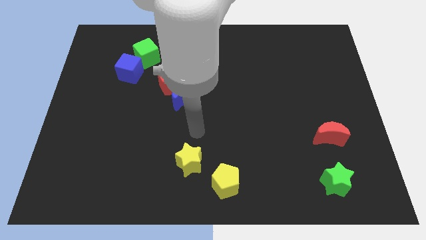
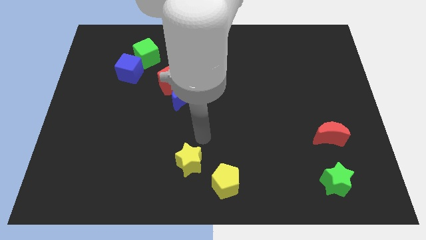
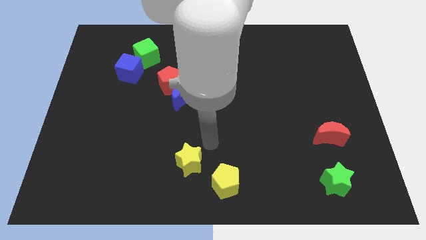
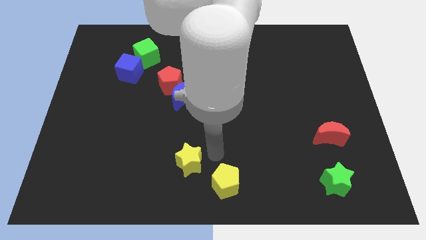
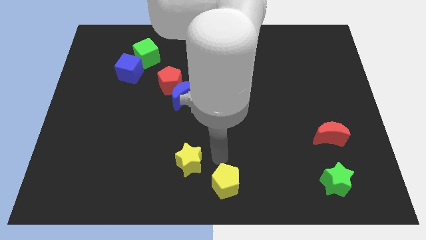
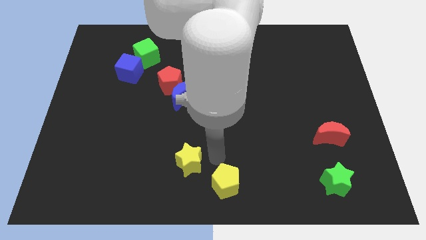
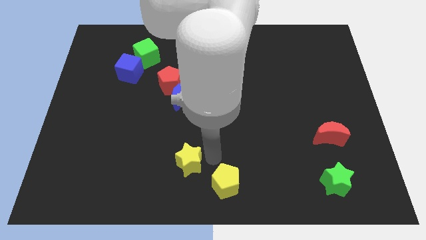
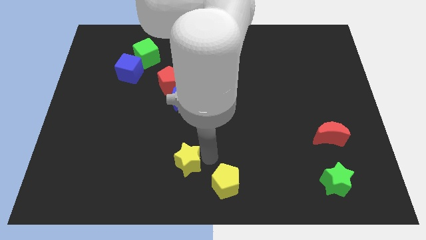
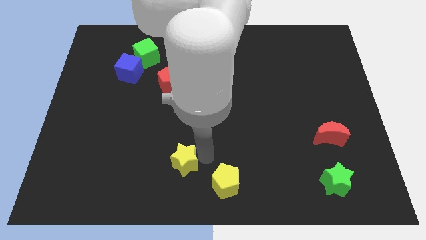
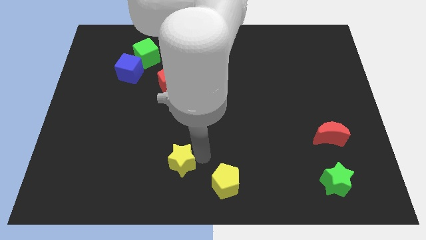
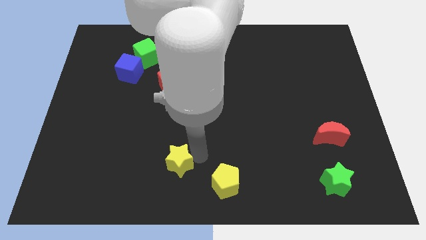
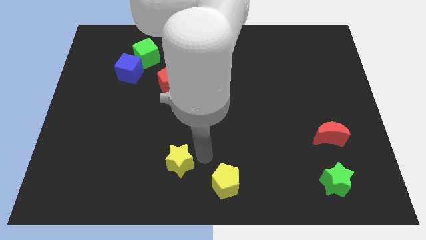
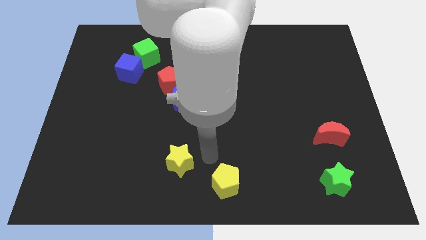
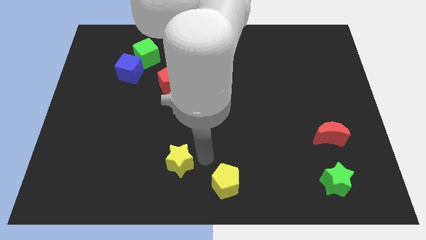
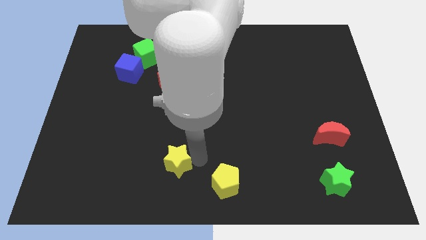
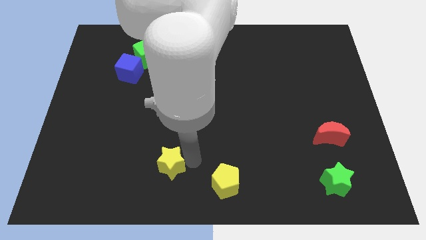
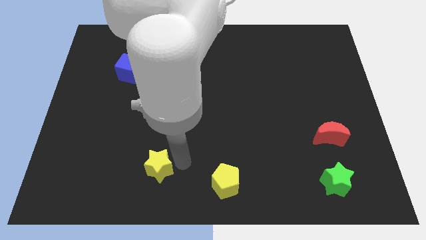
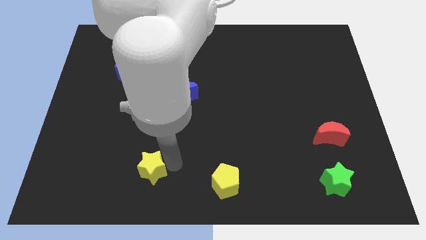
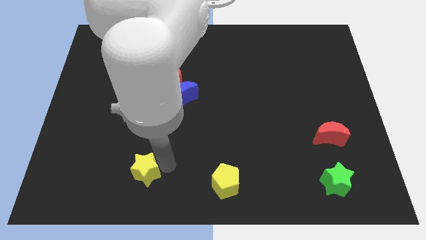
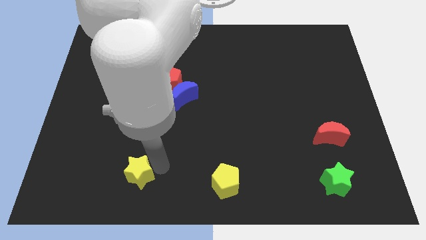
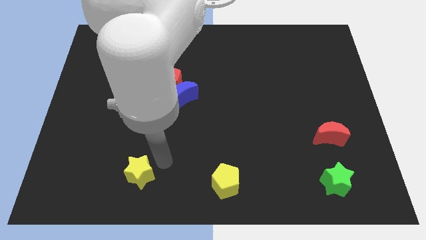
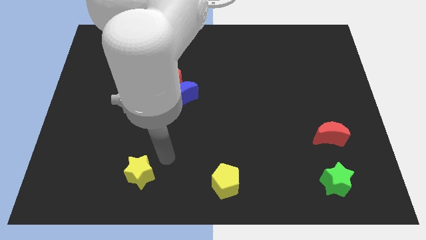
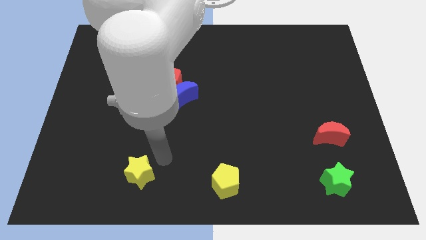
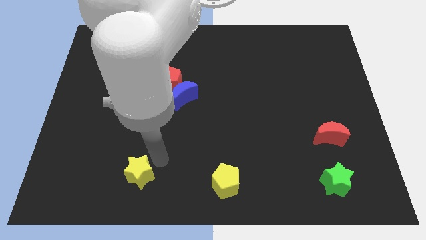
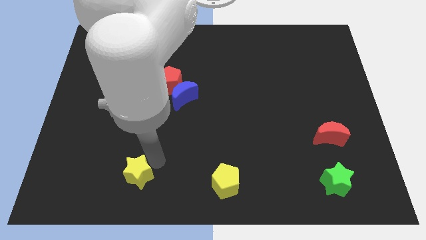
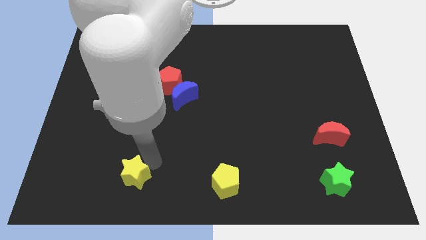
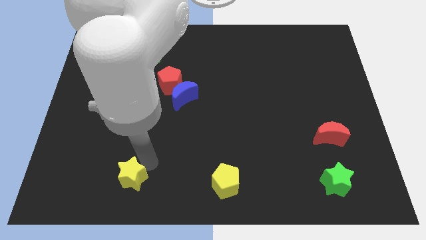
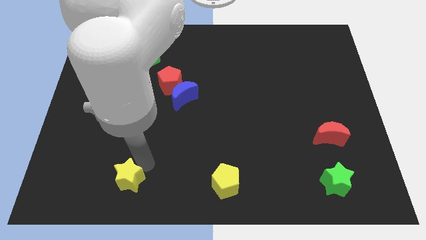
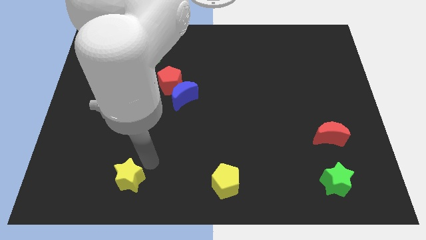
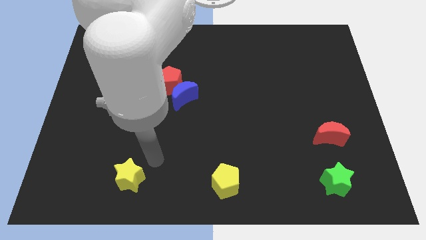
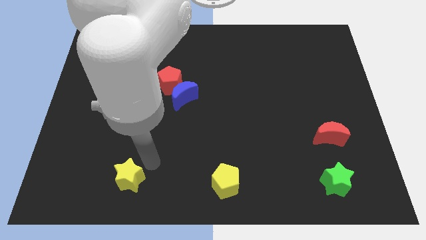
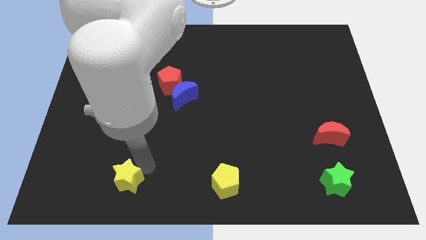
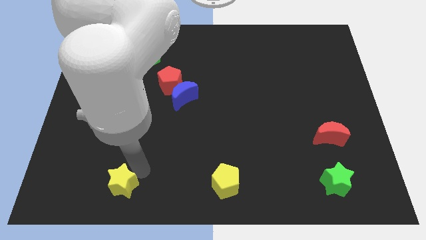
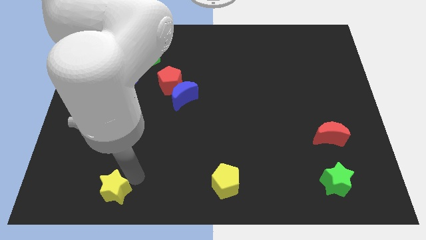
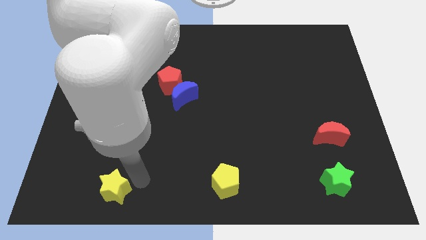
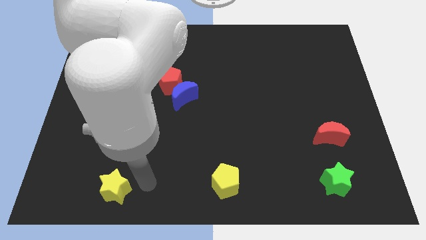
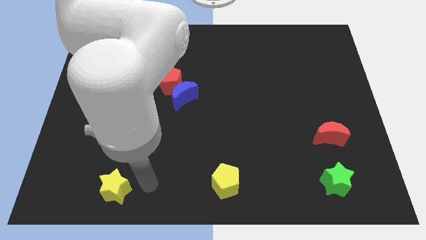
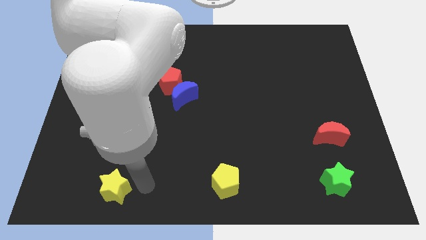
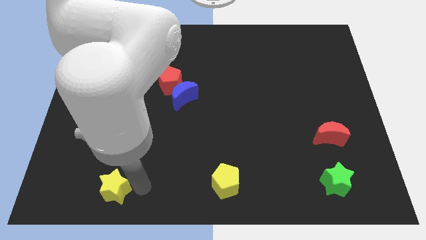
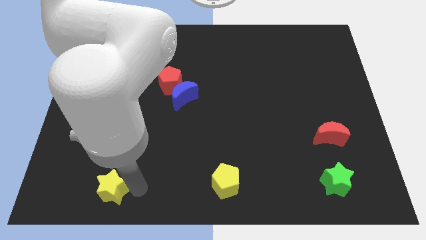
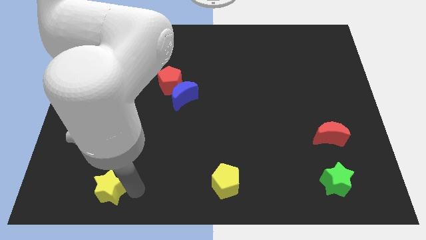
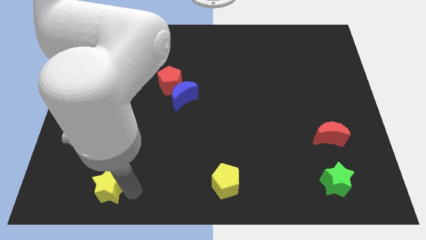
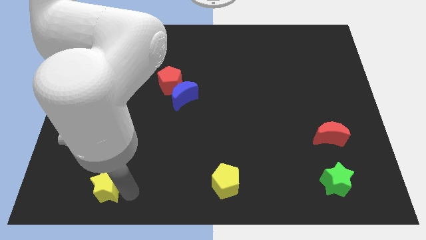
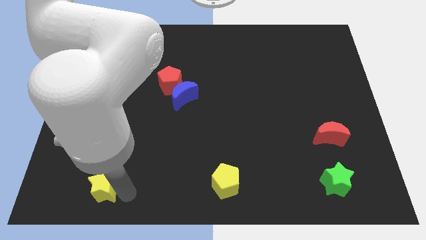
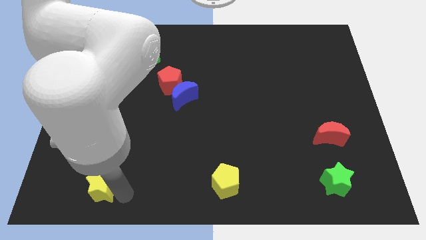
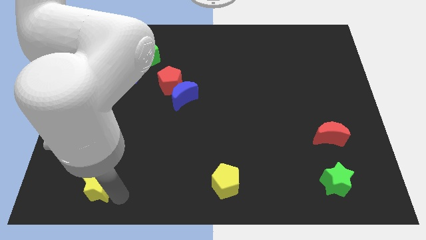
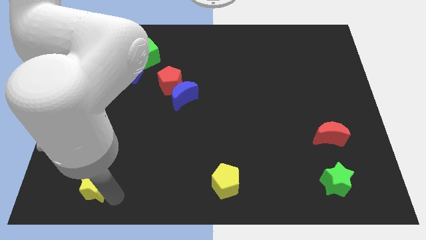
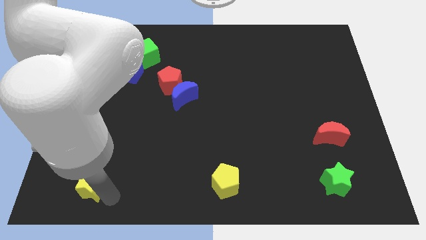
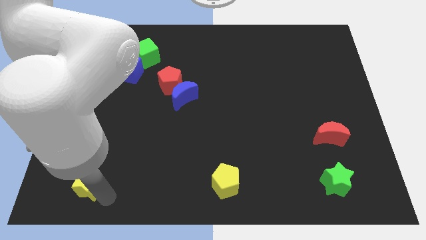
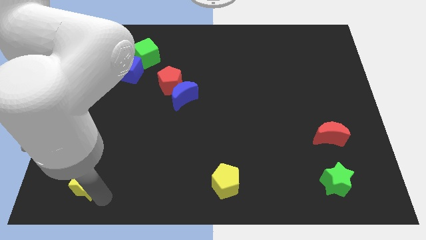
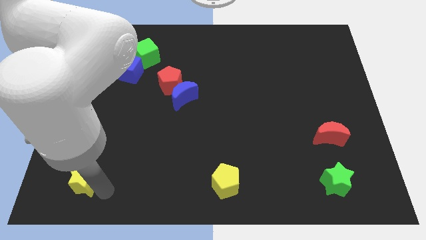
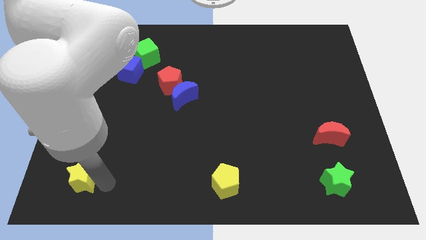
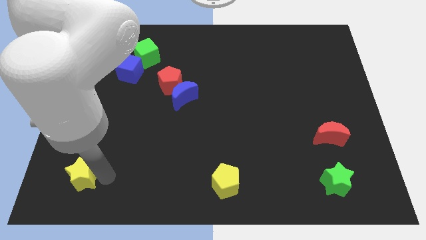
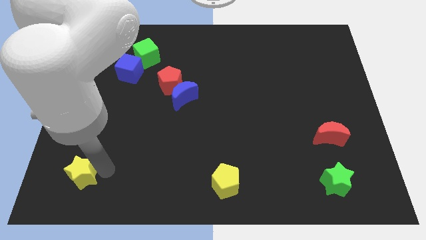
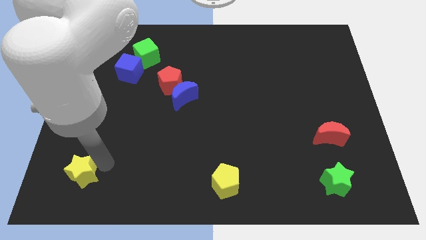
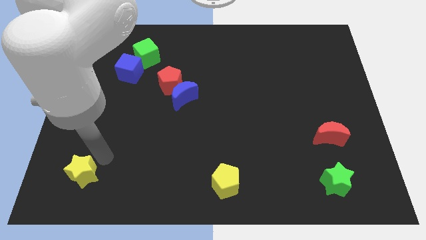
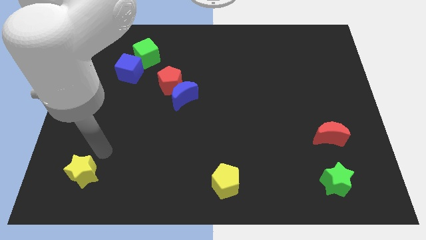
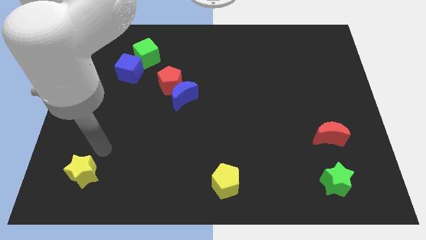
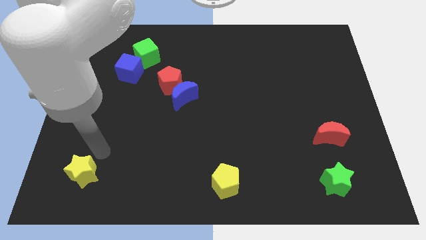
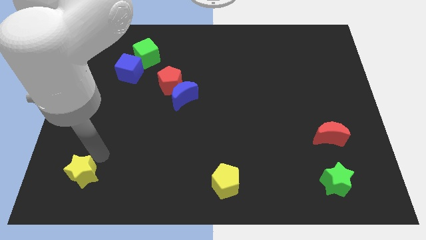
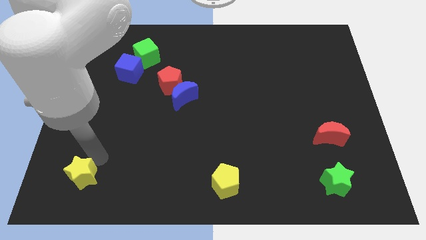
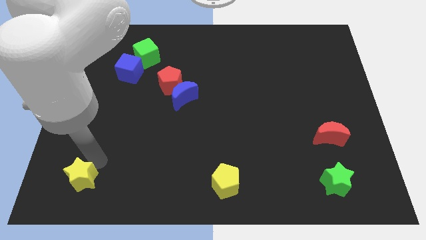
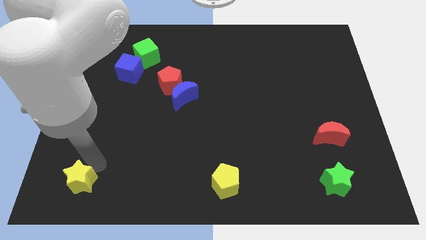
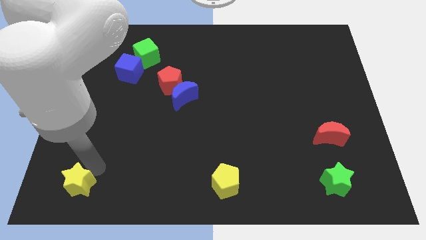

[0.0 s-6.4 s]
put the yellow star to the lower left corner

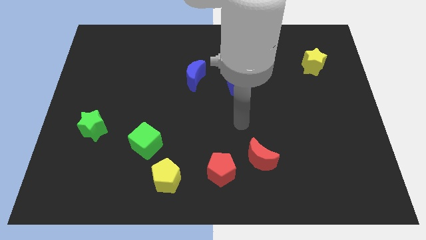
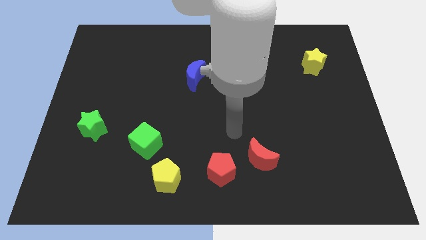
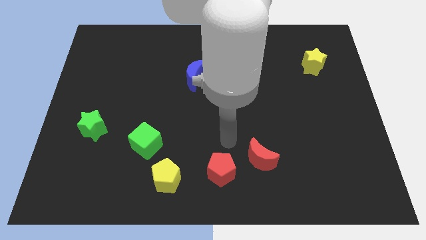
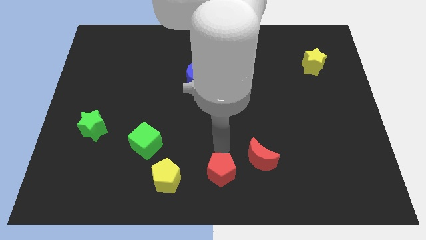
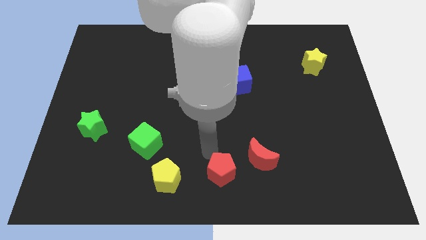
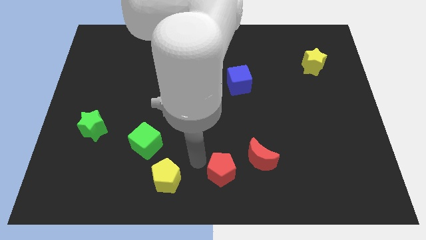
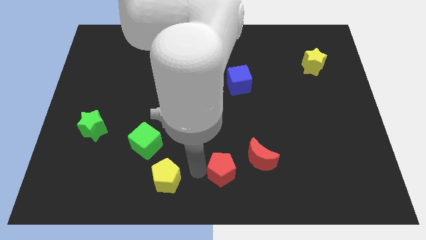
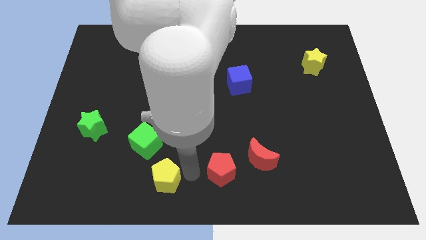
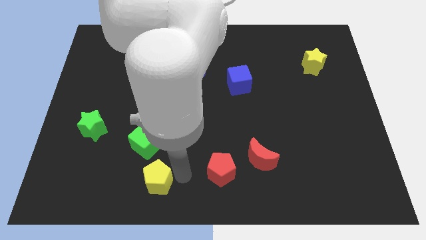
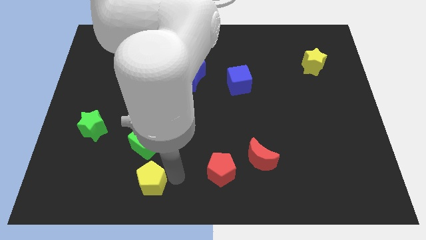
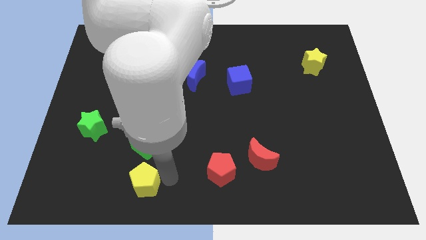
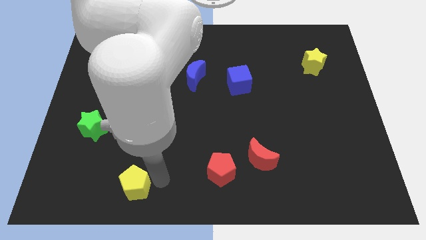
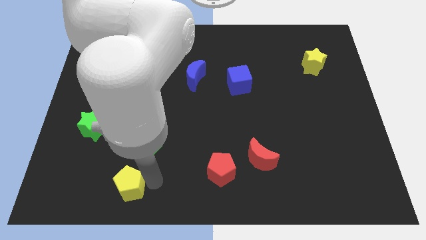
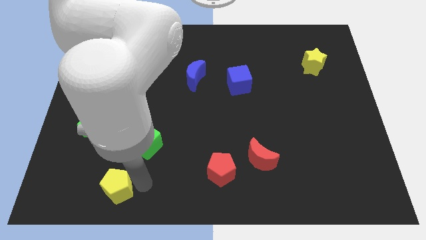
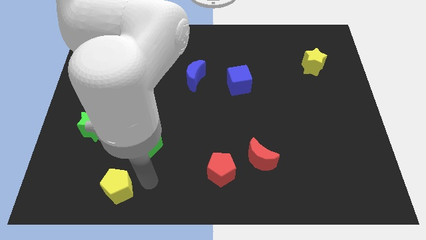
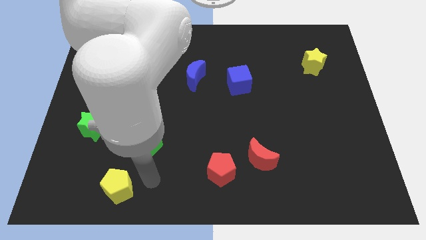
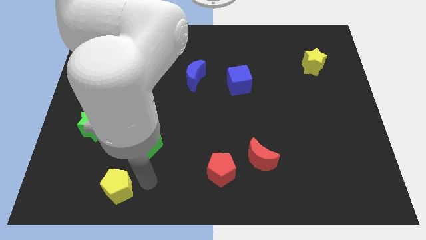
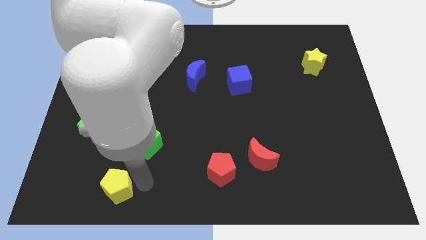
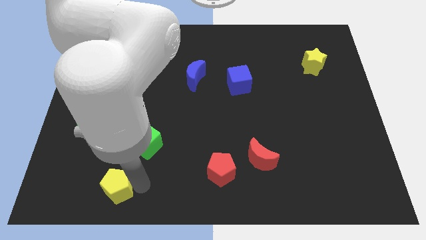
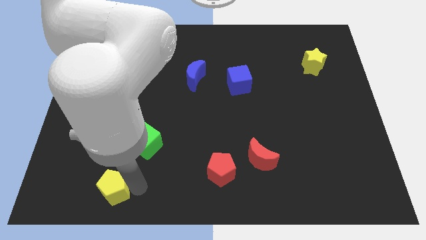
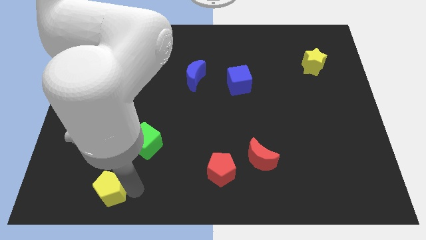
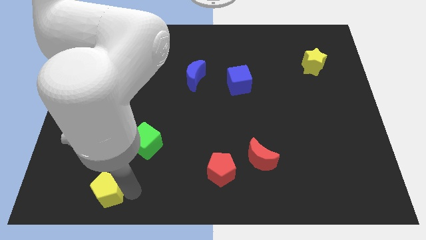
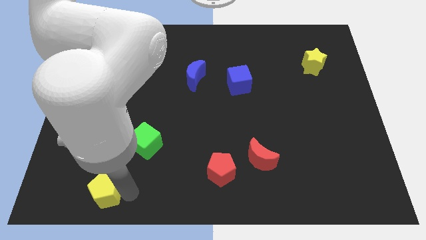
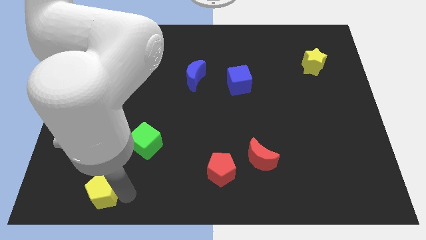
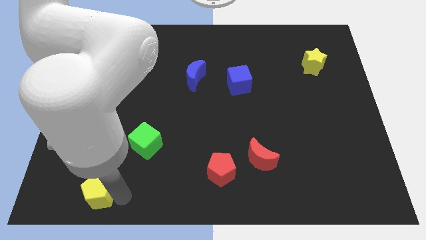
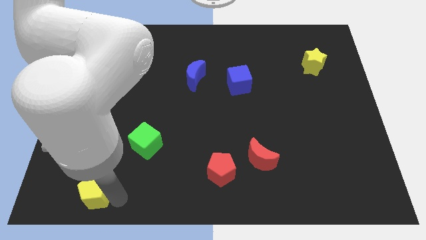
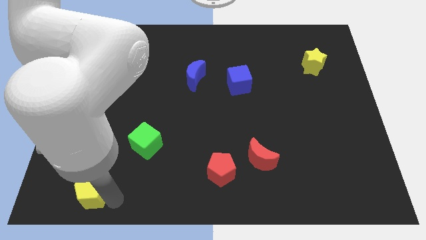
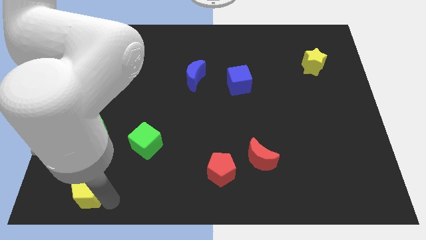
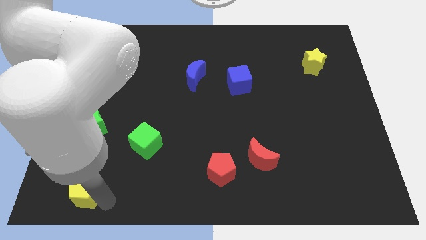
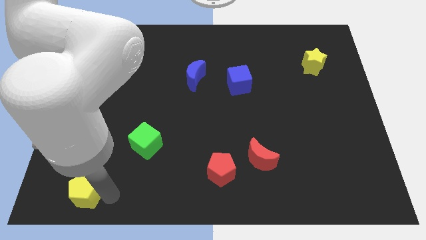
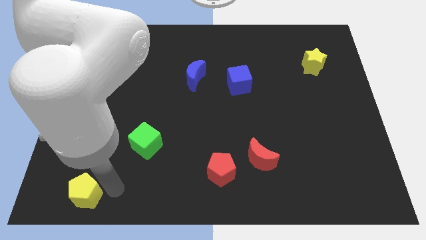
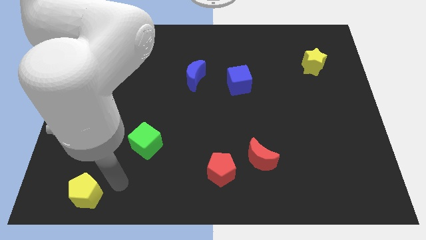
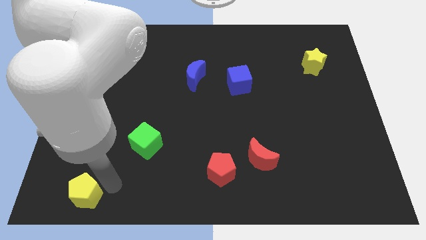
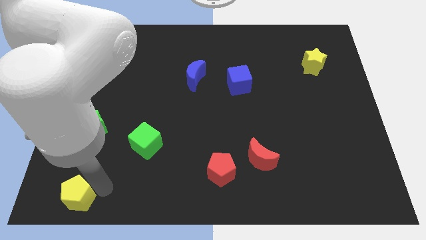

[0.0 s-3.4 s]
move the yellow pentagon to the bottom left
